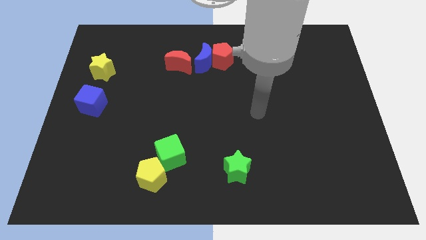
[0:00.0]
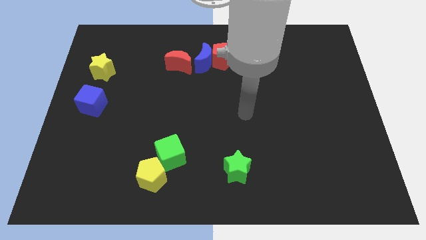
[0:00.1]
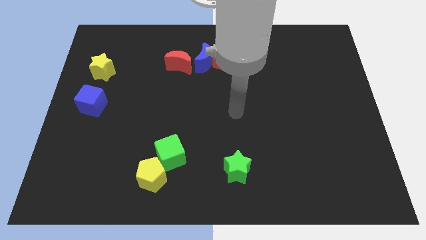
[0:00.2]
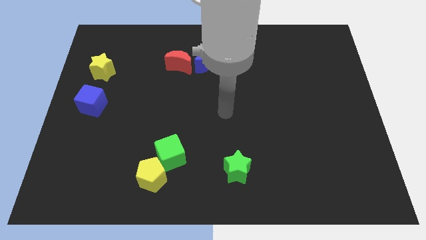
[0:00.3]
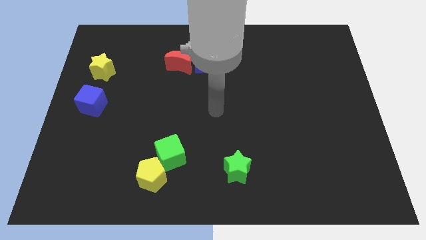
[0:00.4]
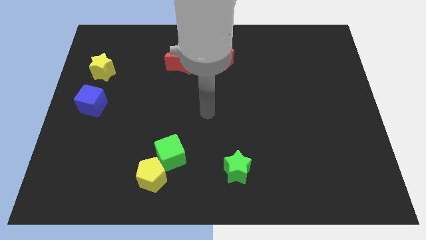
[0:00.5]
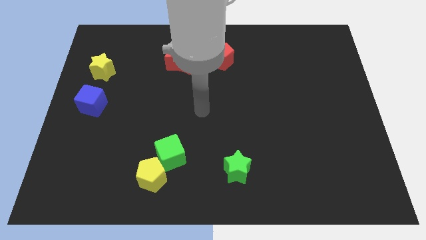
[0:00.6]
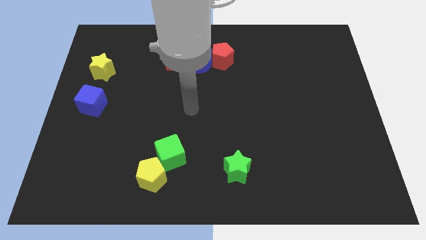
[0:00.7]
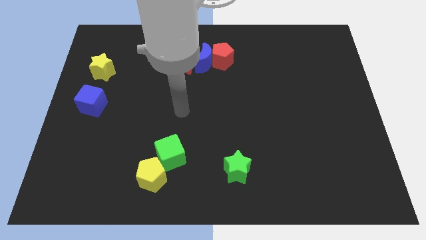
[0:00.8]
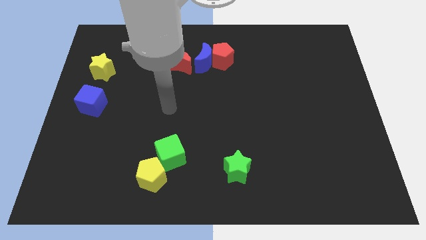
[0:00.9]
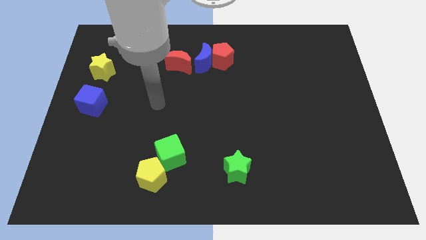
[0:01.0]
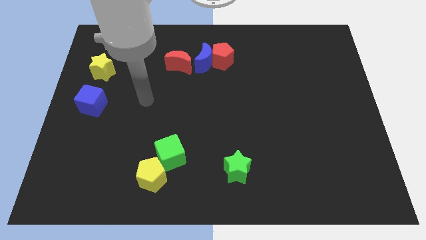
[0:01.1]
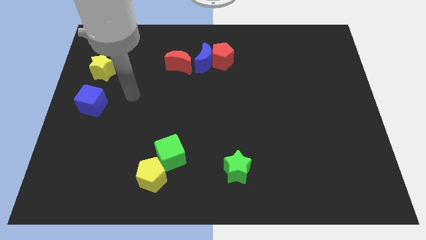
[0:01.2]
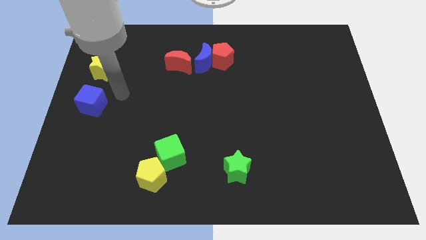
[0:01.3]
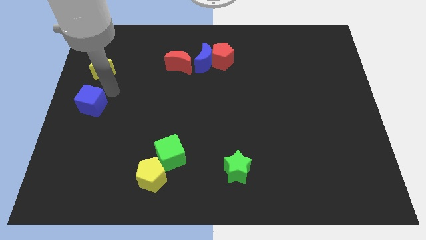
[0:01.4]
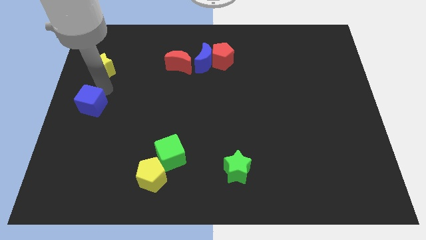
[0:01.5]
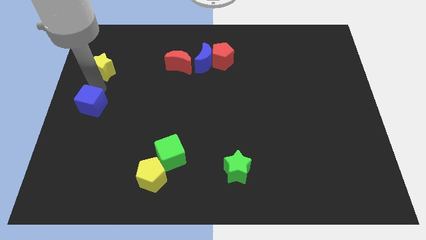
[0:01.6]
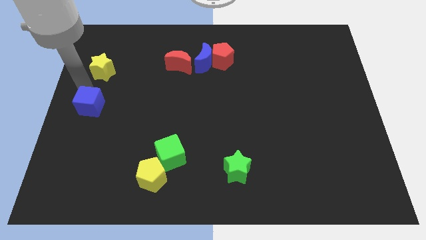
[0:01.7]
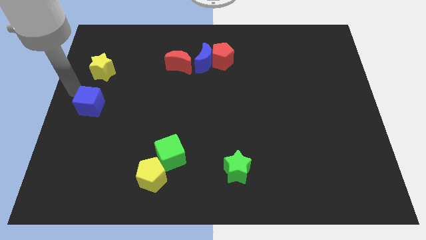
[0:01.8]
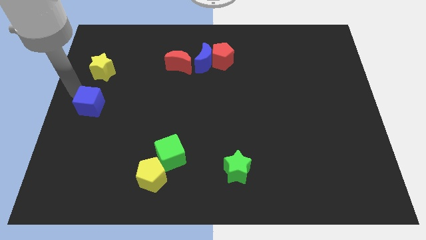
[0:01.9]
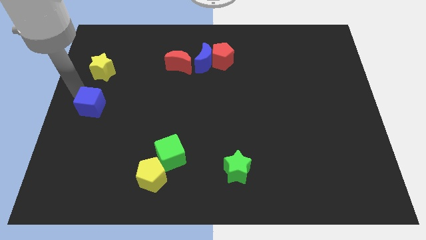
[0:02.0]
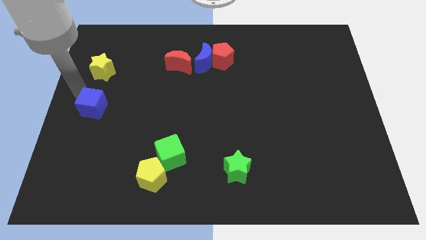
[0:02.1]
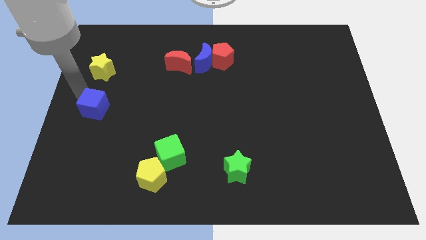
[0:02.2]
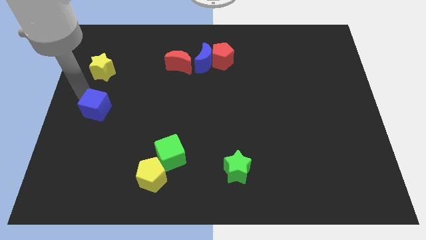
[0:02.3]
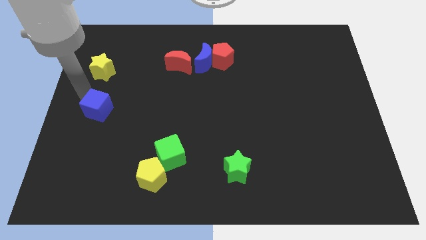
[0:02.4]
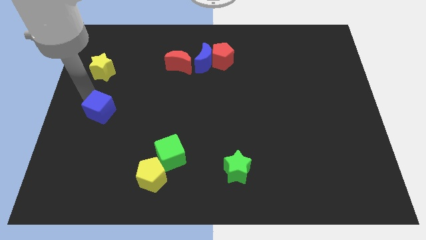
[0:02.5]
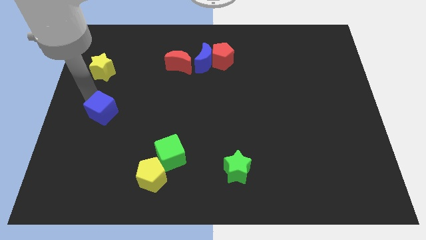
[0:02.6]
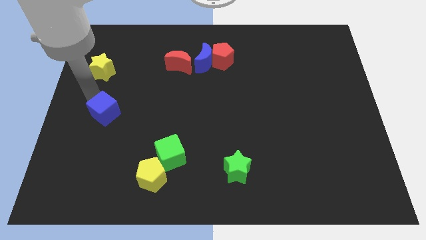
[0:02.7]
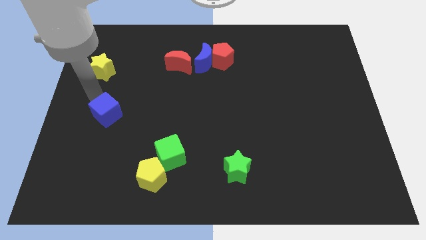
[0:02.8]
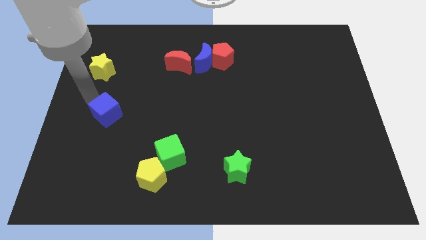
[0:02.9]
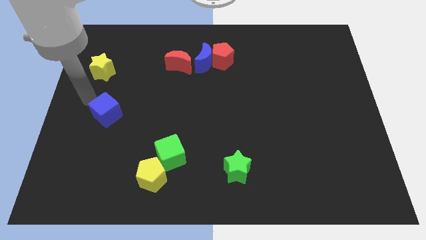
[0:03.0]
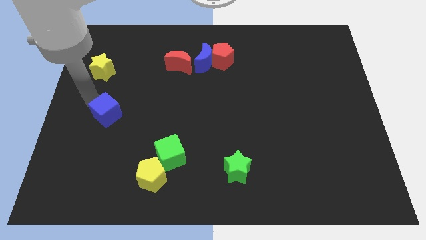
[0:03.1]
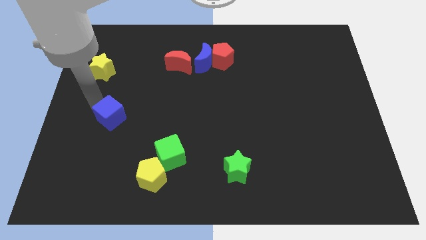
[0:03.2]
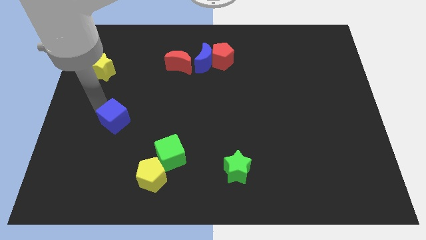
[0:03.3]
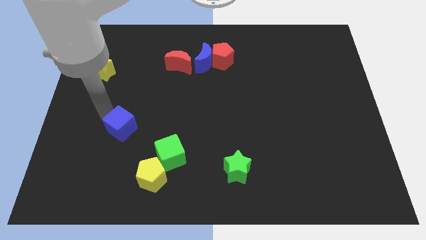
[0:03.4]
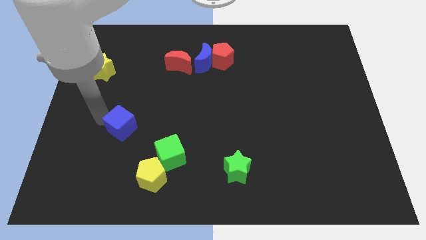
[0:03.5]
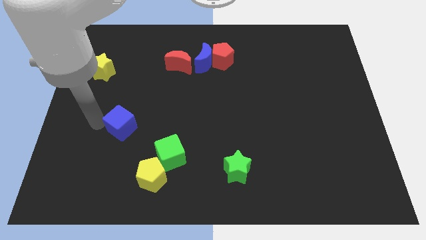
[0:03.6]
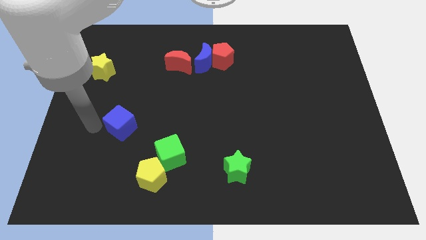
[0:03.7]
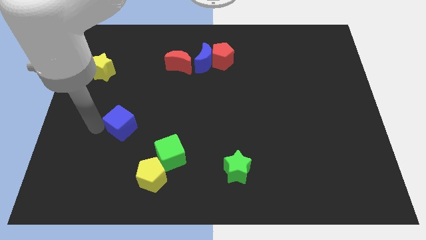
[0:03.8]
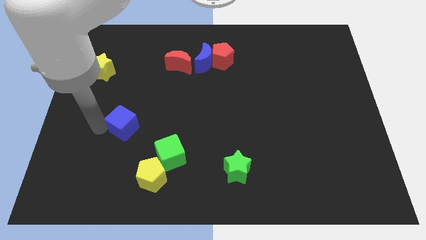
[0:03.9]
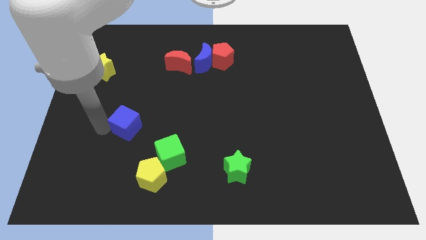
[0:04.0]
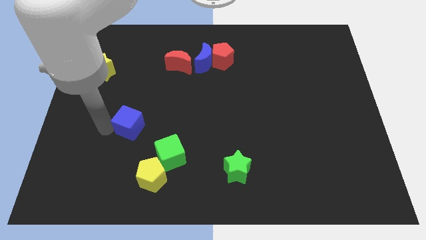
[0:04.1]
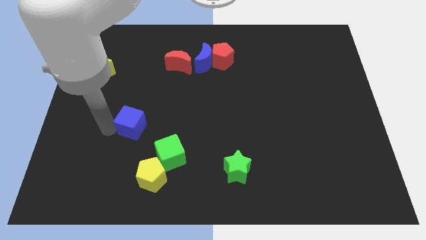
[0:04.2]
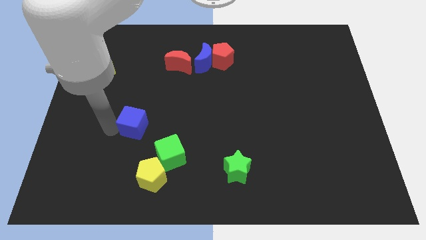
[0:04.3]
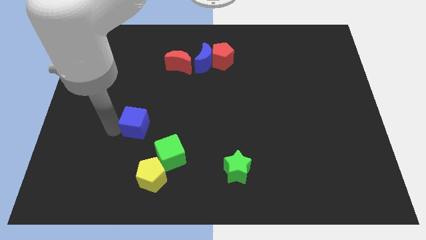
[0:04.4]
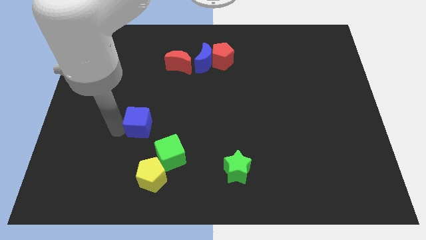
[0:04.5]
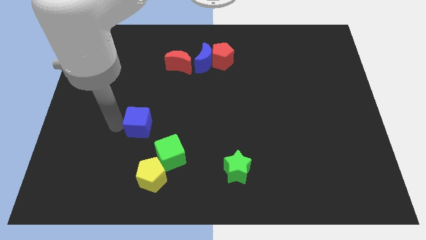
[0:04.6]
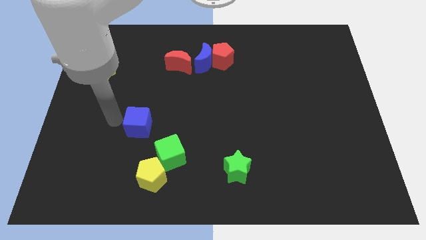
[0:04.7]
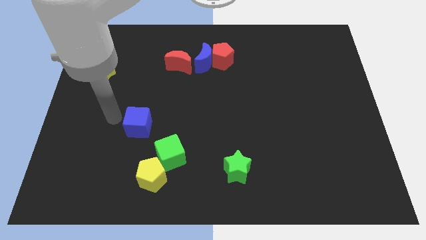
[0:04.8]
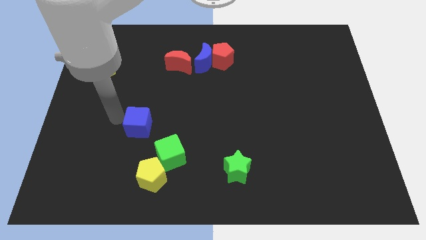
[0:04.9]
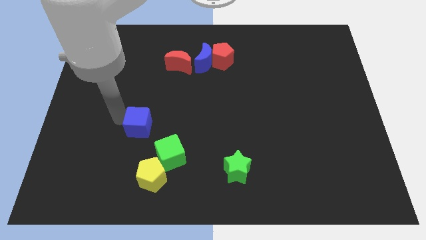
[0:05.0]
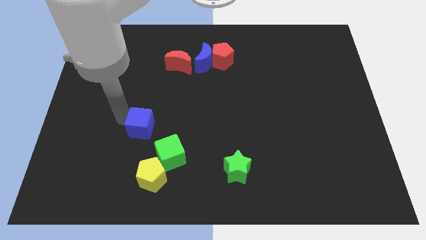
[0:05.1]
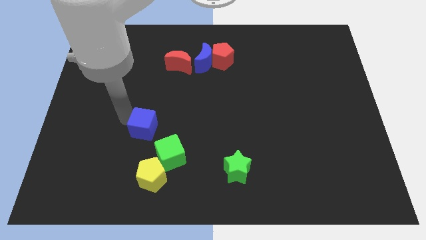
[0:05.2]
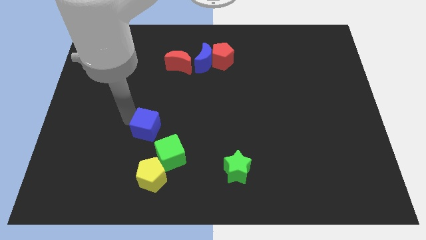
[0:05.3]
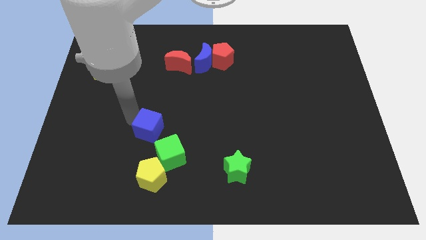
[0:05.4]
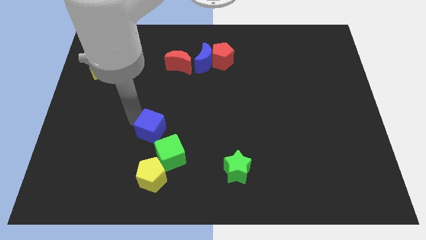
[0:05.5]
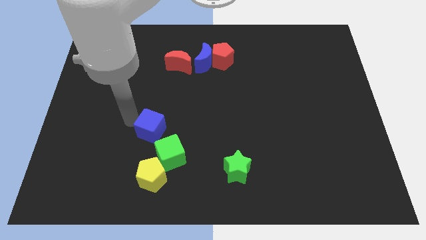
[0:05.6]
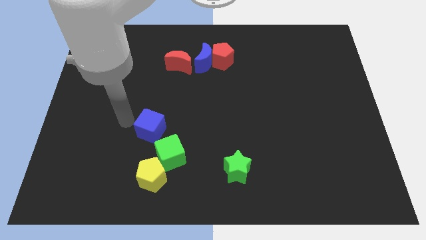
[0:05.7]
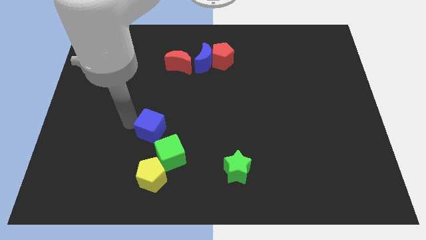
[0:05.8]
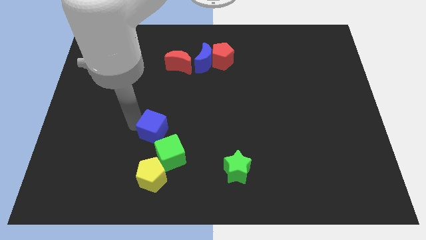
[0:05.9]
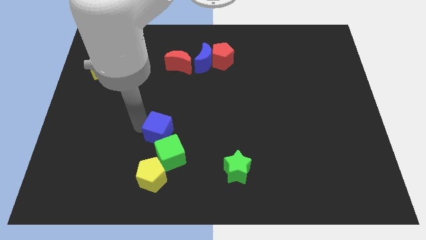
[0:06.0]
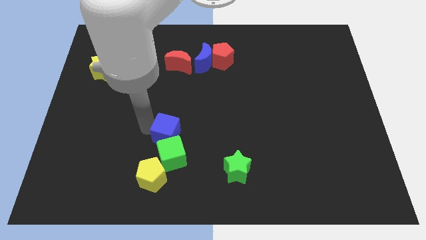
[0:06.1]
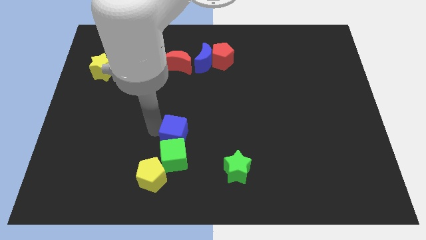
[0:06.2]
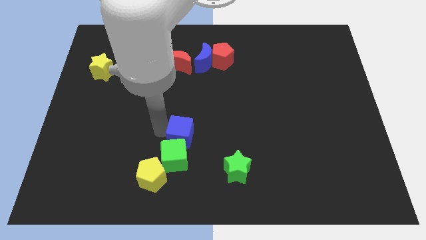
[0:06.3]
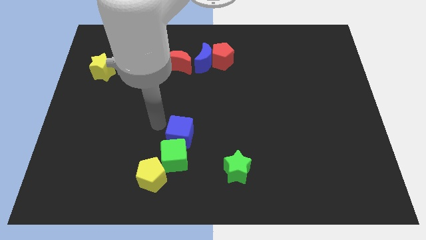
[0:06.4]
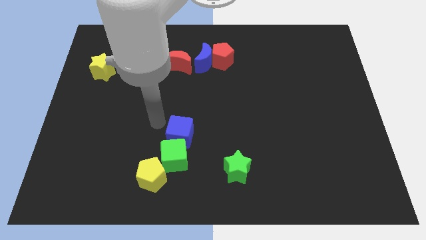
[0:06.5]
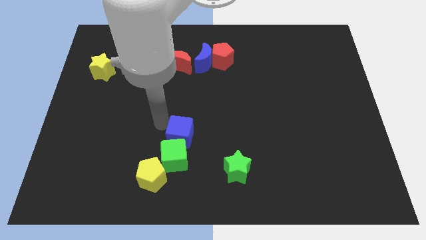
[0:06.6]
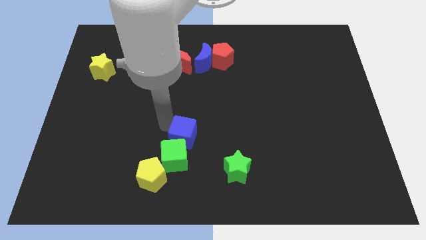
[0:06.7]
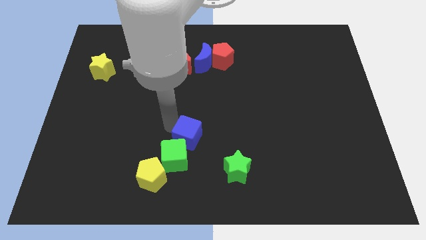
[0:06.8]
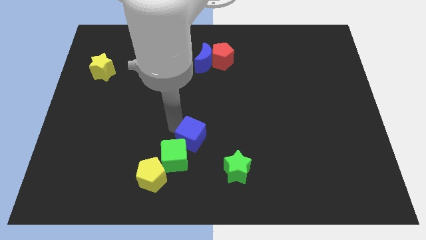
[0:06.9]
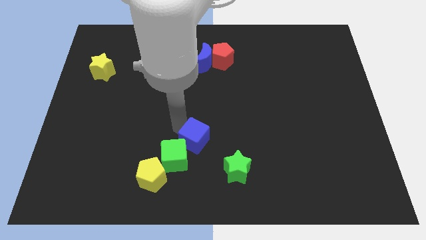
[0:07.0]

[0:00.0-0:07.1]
push the blue cube to the right of the green cube
